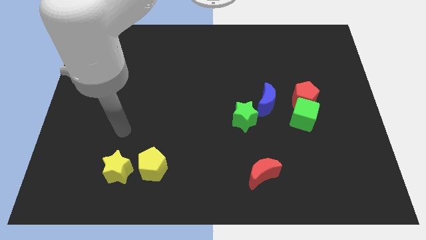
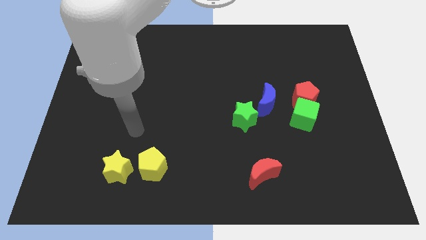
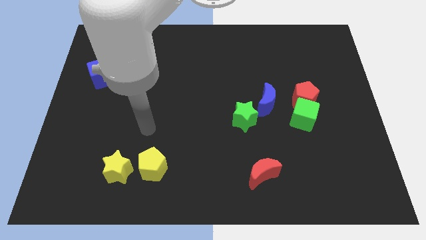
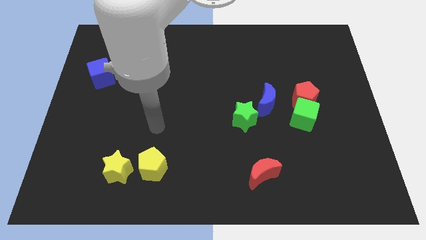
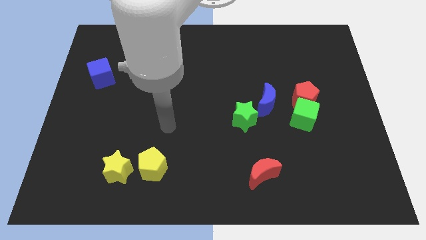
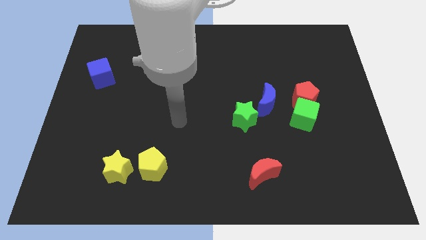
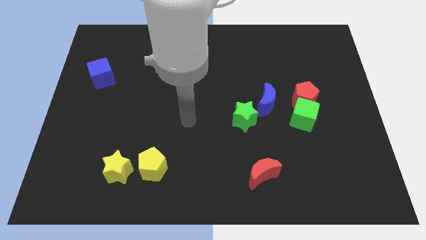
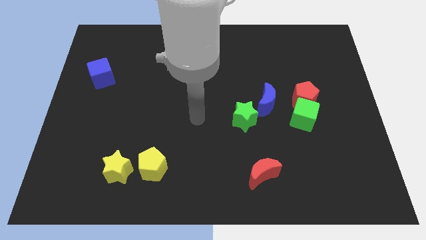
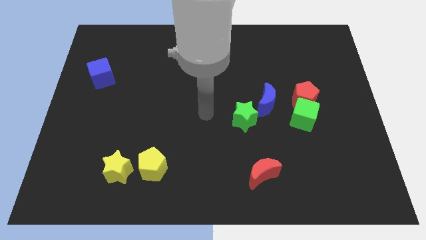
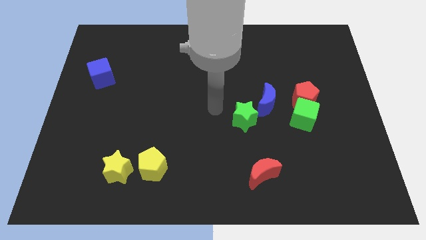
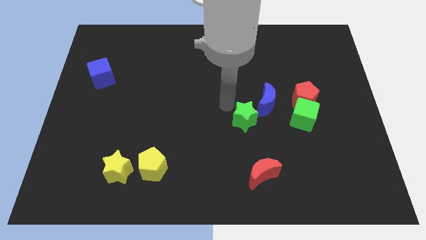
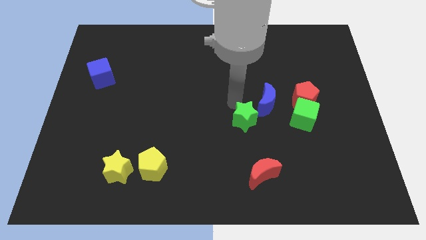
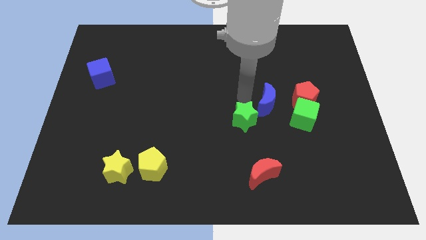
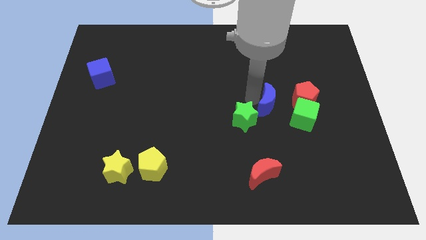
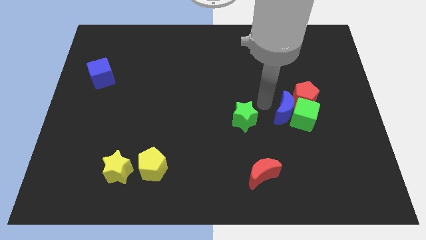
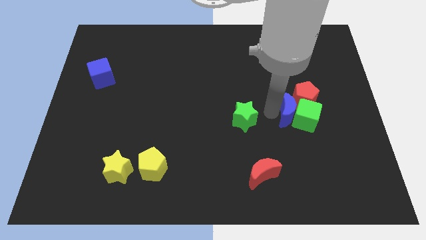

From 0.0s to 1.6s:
separate the green star from the blue moon

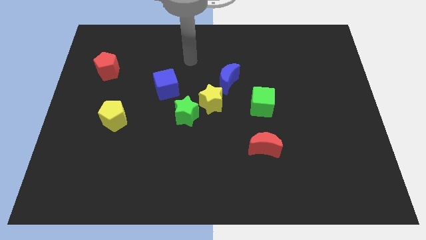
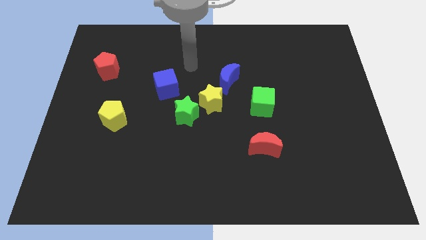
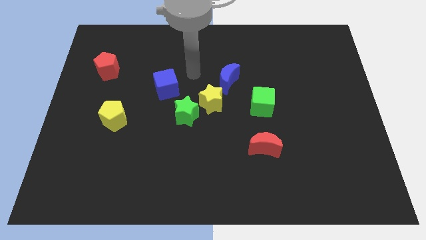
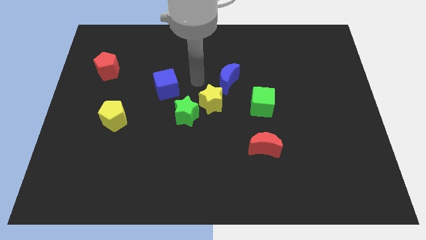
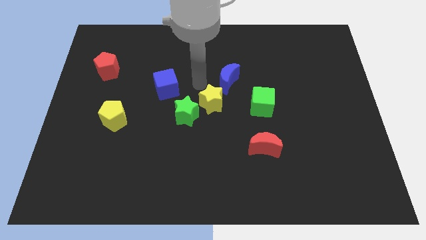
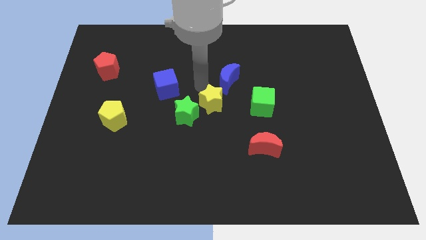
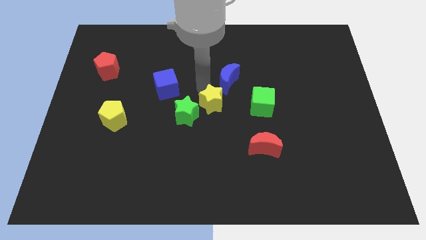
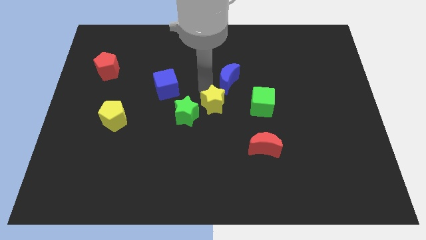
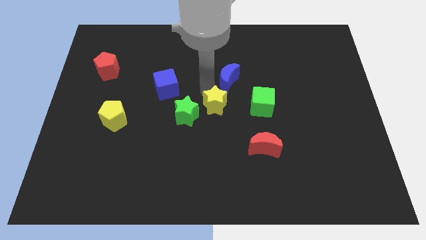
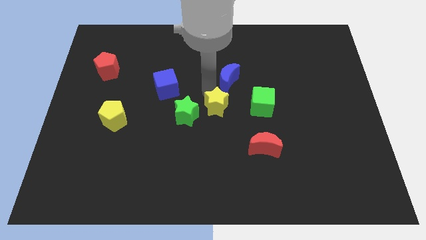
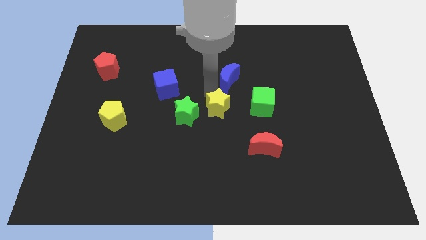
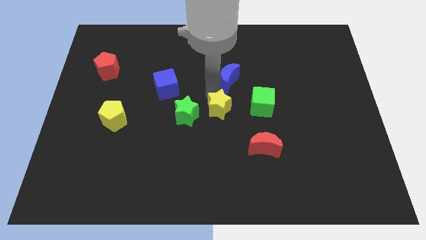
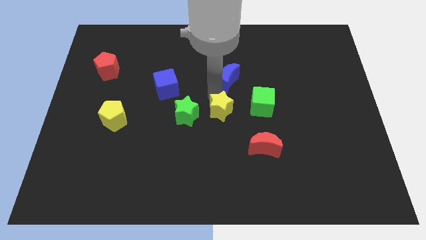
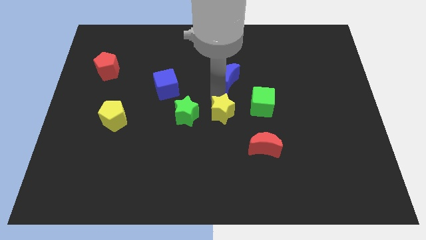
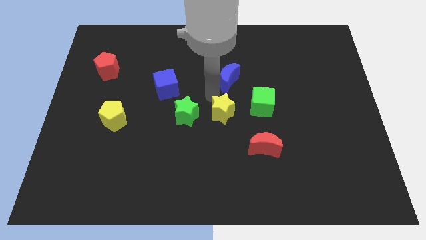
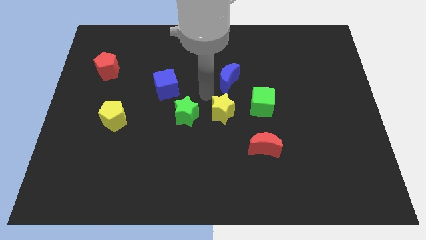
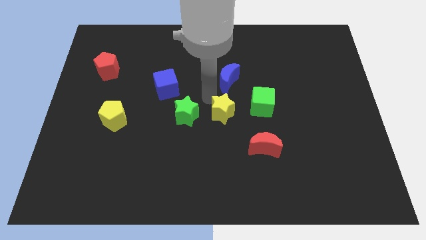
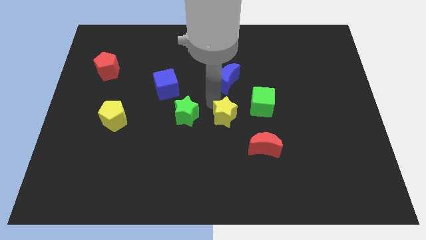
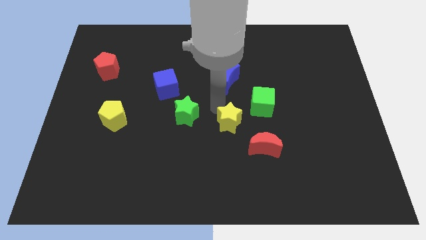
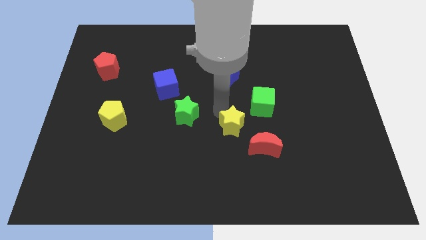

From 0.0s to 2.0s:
move the yellow star away from the green star and blue moon

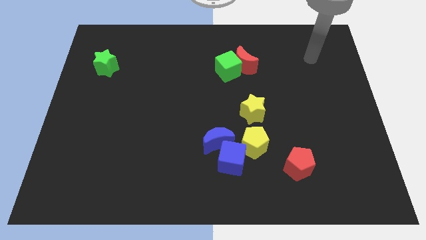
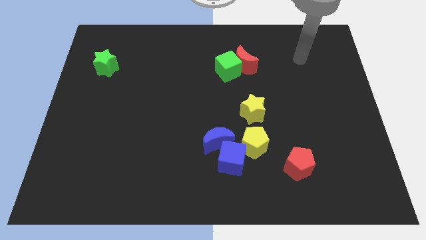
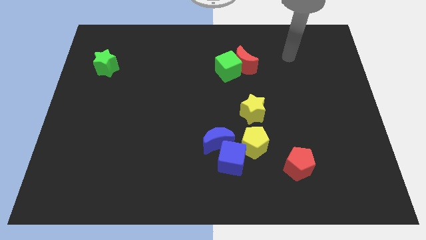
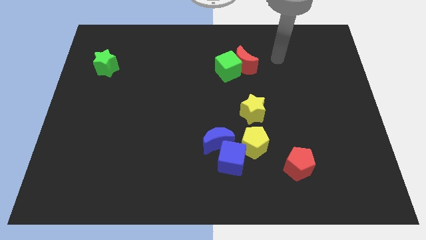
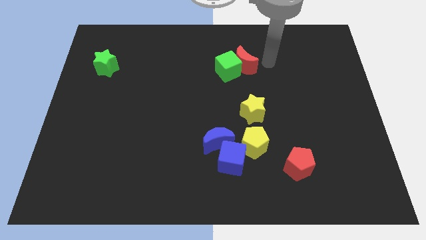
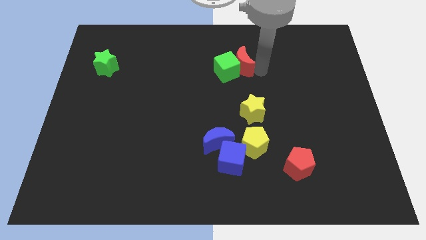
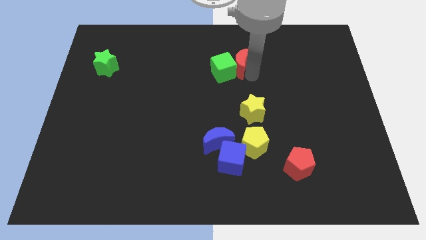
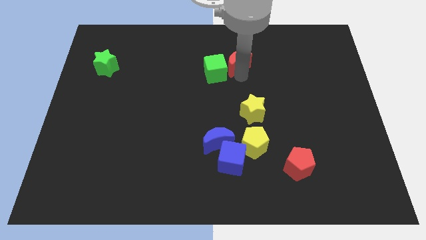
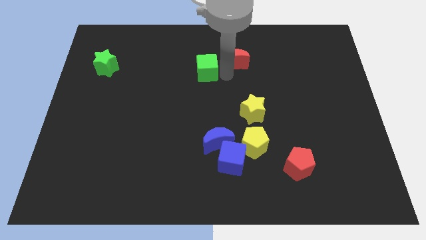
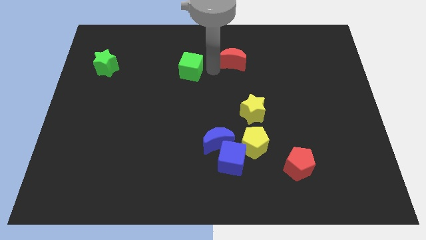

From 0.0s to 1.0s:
move the red moon away from the green cube

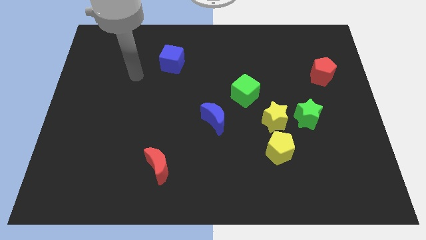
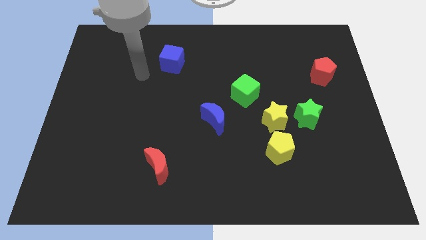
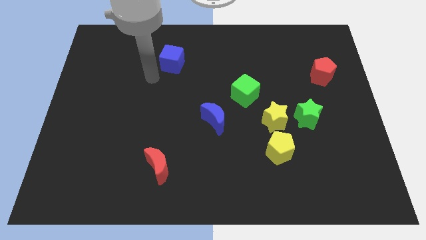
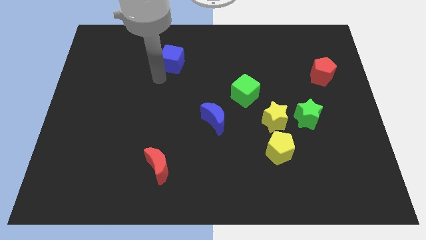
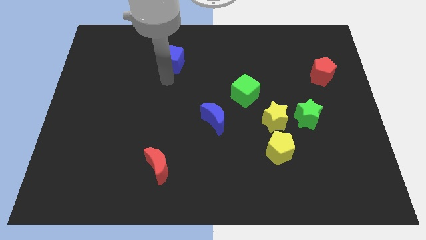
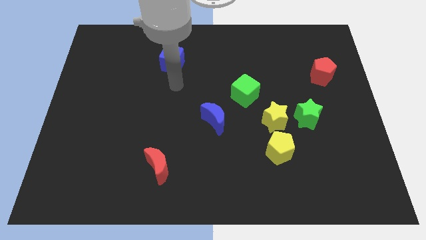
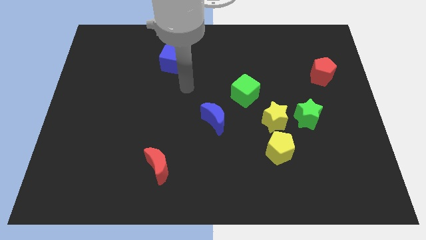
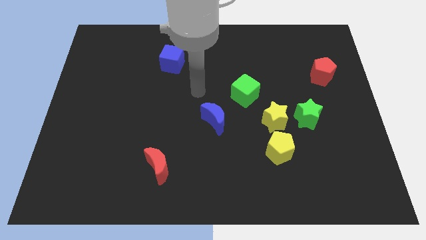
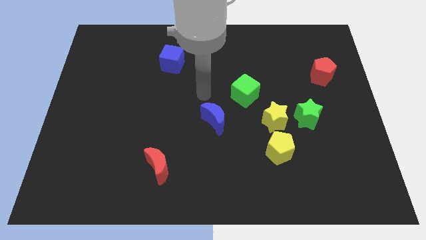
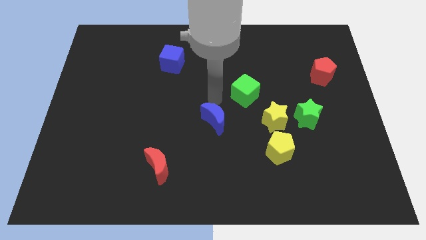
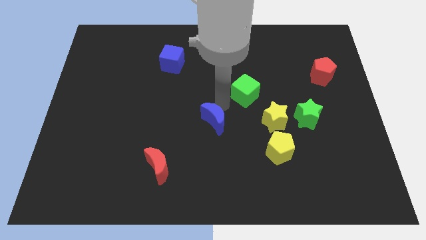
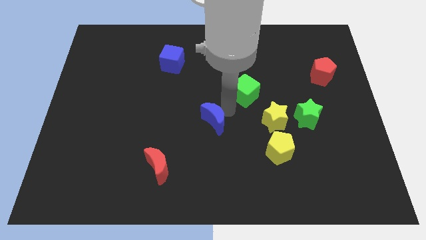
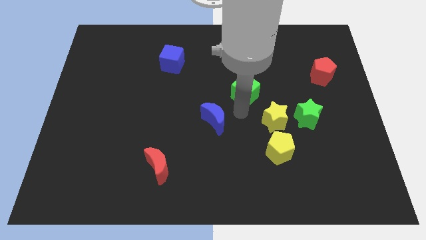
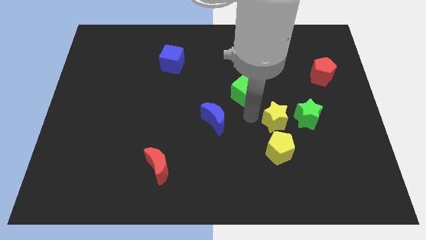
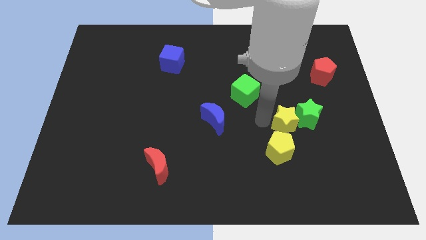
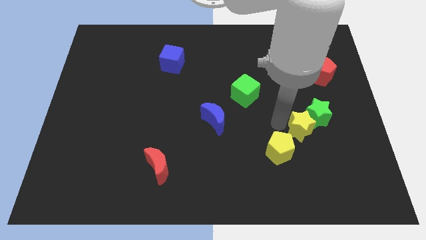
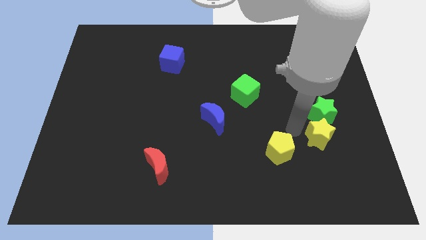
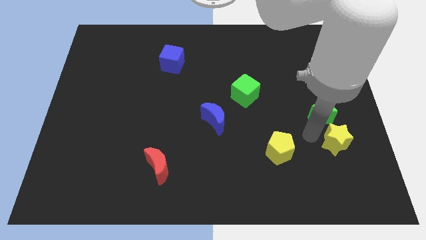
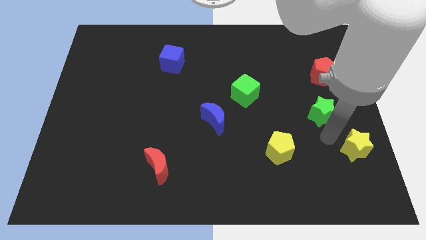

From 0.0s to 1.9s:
move the green star away from the yellow star

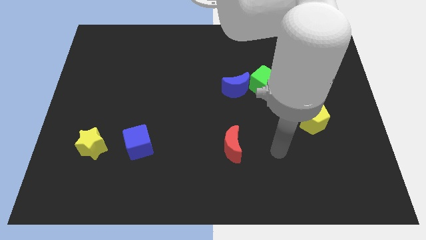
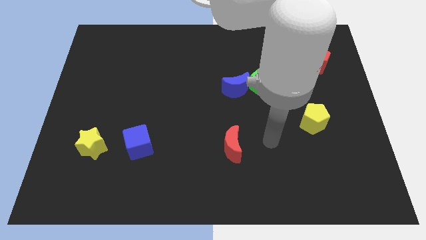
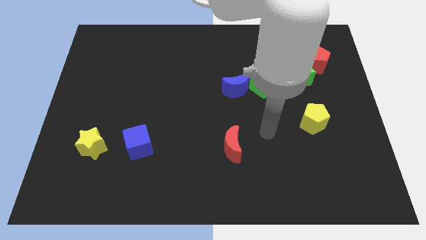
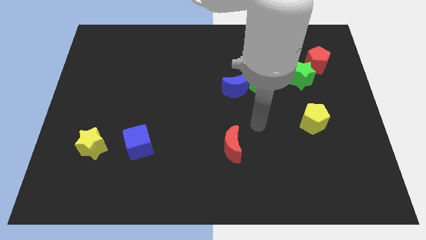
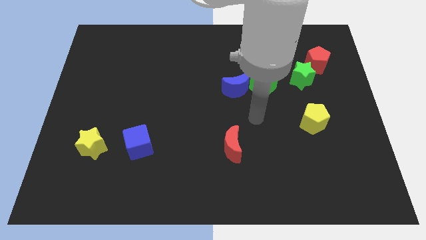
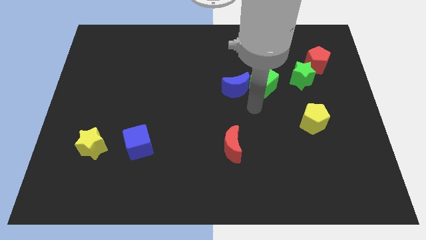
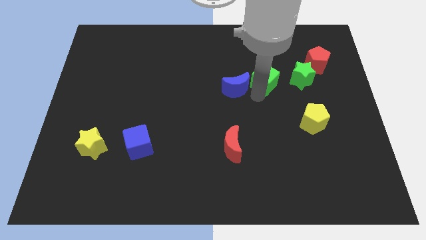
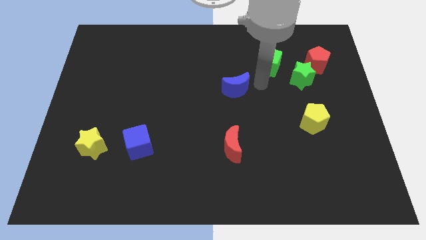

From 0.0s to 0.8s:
separate the blue moon from the green cube

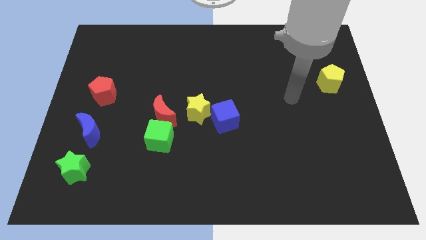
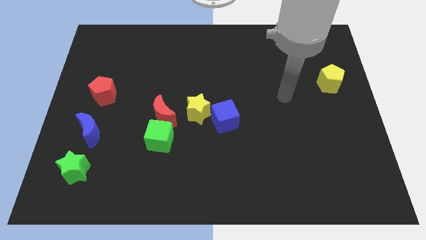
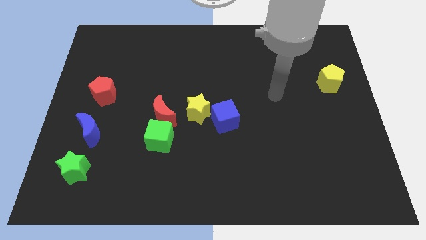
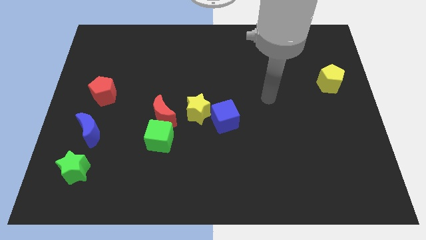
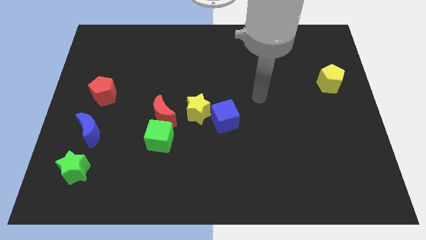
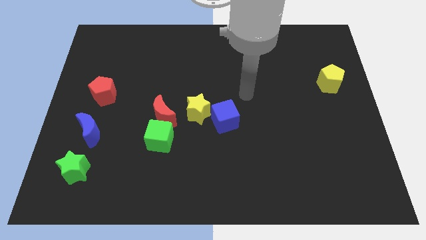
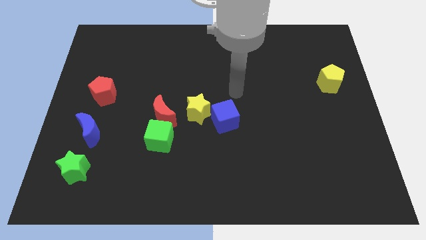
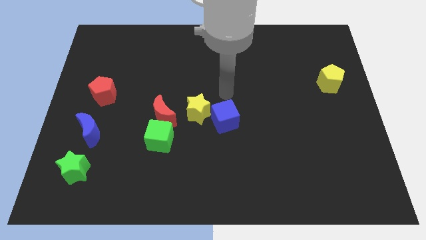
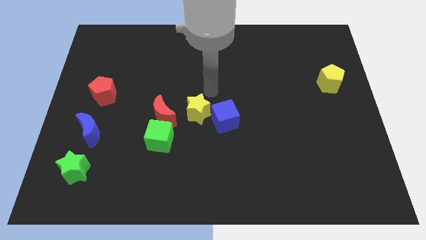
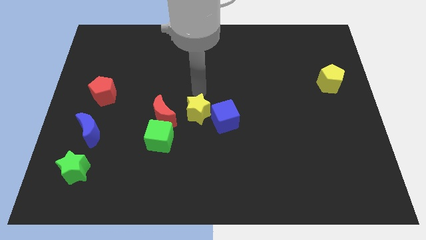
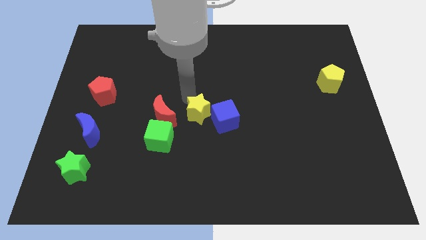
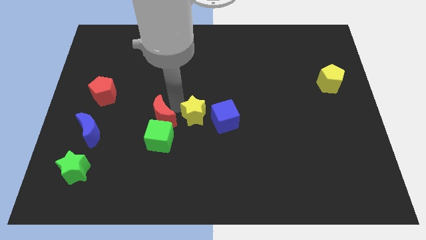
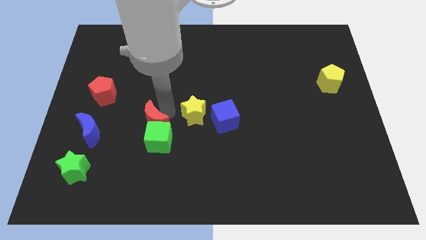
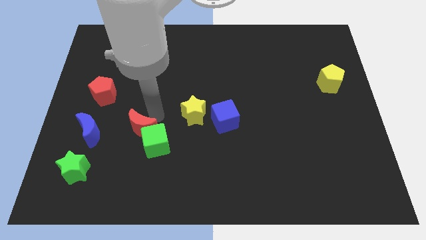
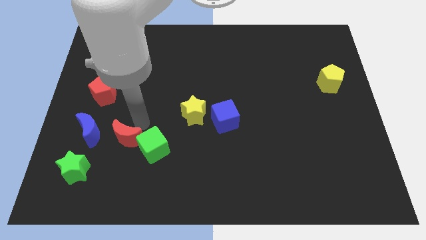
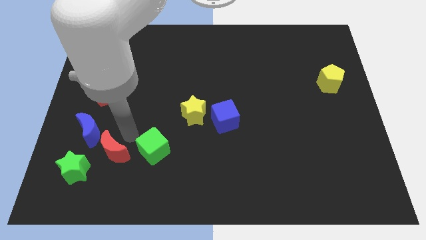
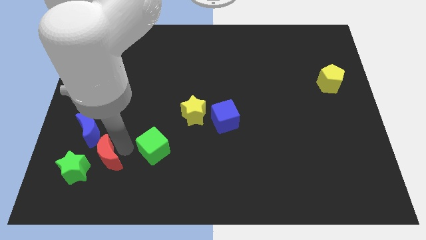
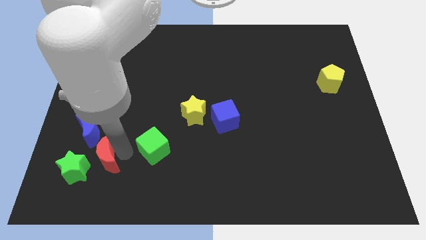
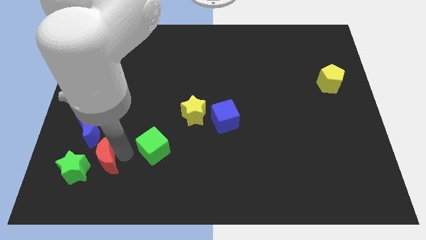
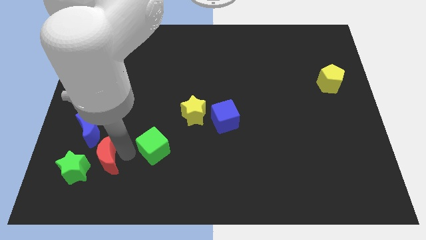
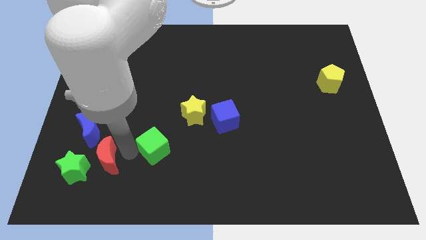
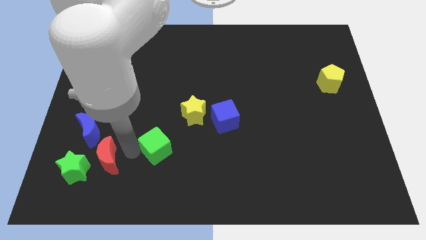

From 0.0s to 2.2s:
separate the green cube from the red moon
